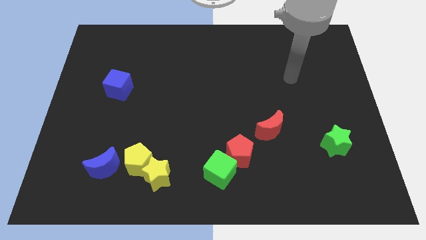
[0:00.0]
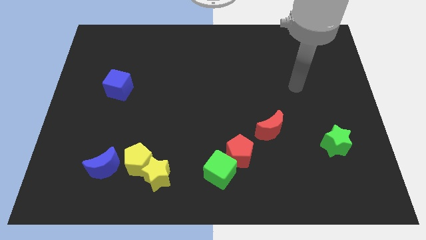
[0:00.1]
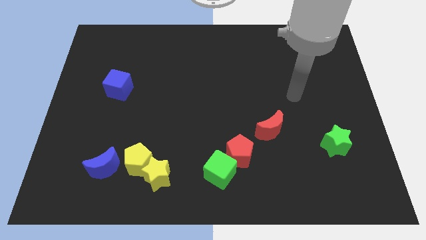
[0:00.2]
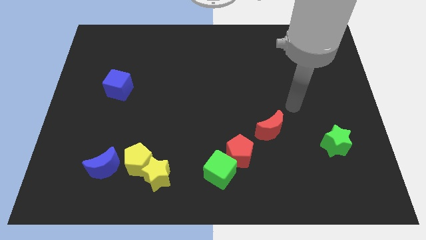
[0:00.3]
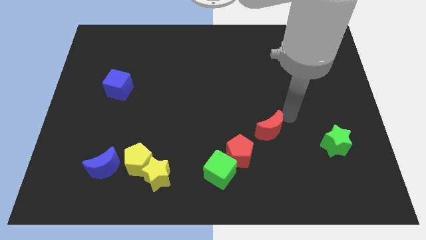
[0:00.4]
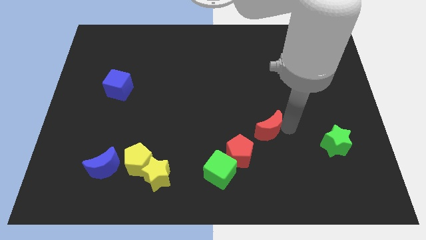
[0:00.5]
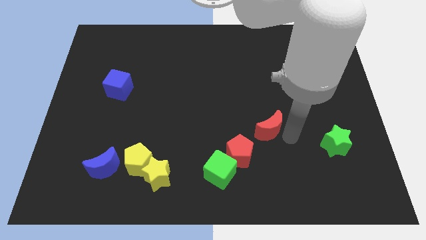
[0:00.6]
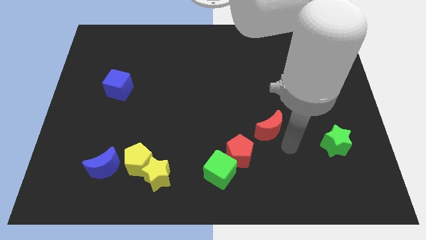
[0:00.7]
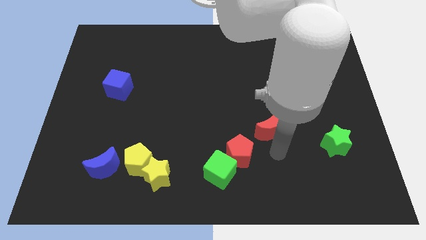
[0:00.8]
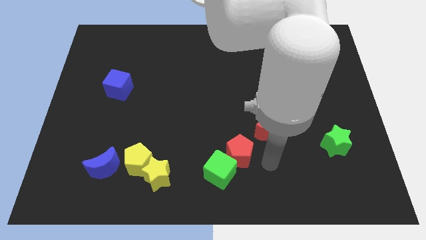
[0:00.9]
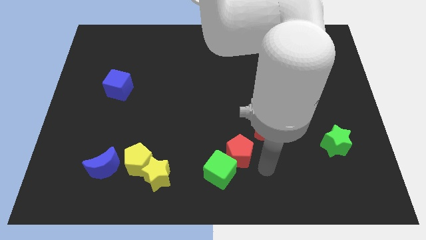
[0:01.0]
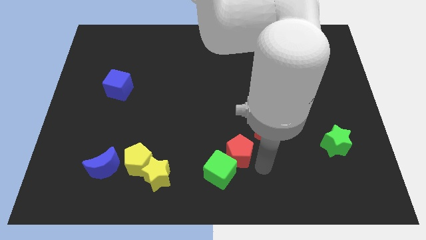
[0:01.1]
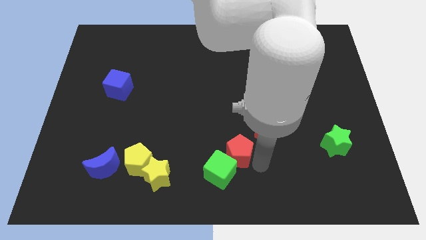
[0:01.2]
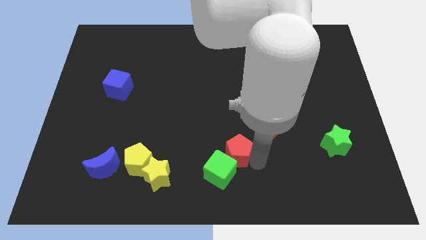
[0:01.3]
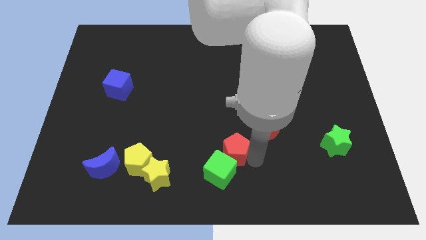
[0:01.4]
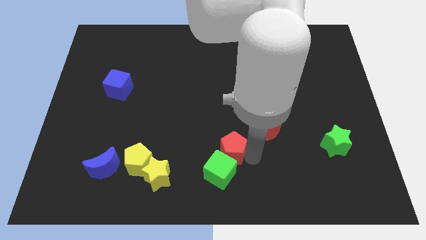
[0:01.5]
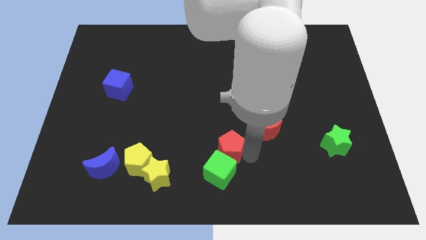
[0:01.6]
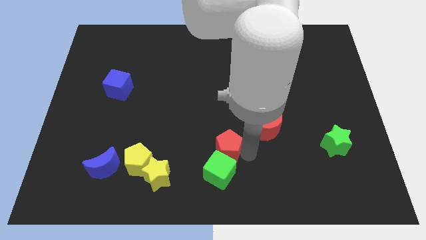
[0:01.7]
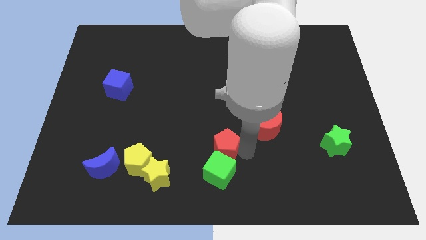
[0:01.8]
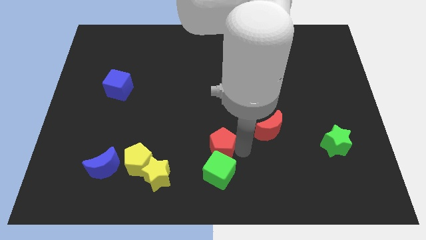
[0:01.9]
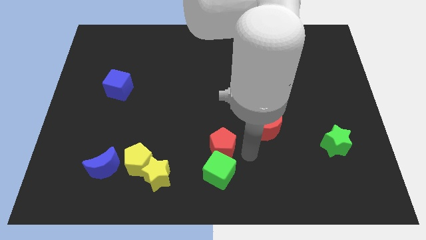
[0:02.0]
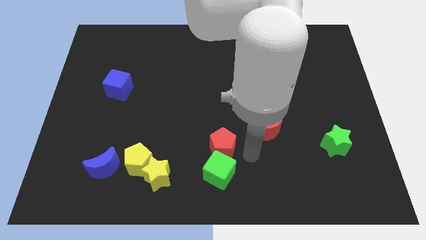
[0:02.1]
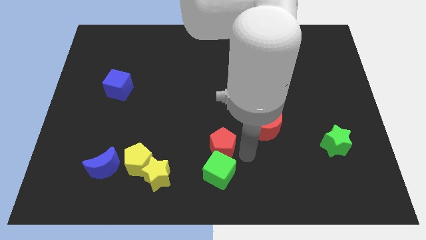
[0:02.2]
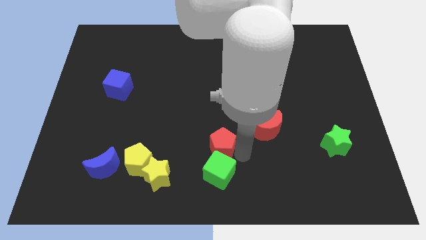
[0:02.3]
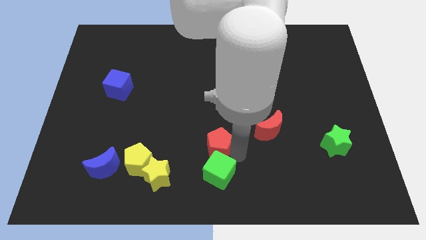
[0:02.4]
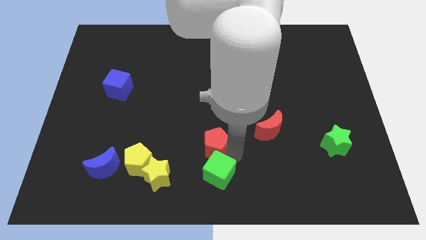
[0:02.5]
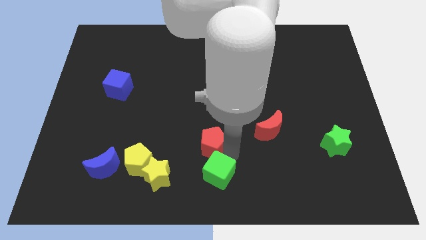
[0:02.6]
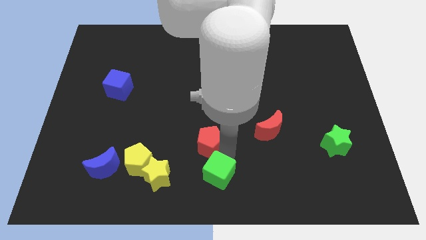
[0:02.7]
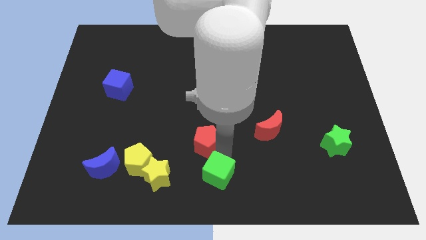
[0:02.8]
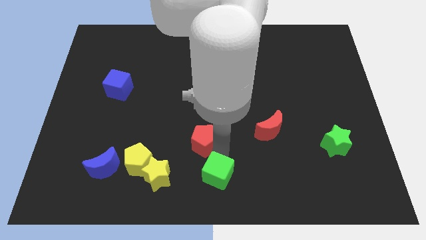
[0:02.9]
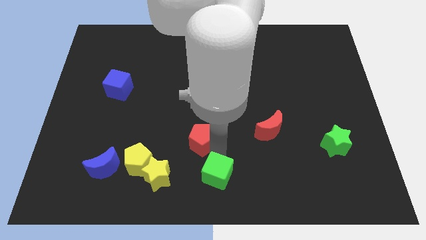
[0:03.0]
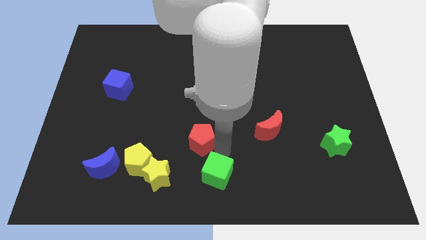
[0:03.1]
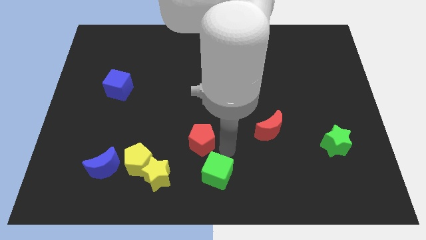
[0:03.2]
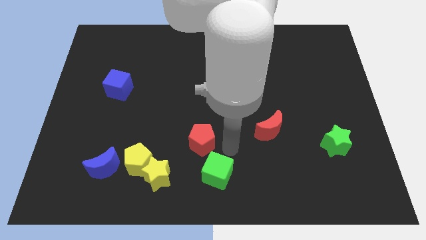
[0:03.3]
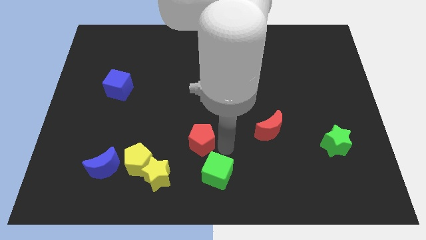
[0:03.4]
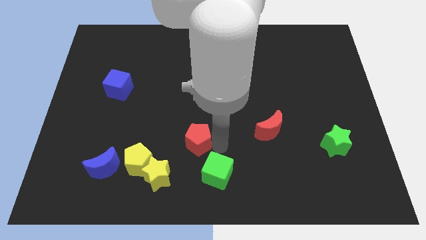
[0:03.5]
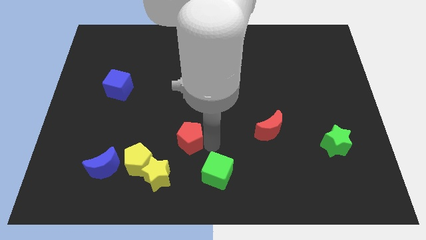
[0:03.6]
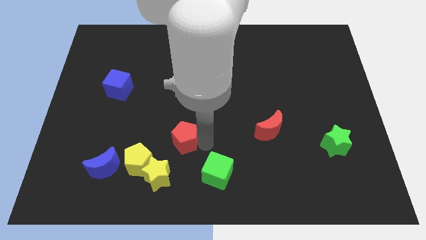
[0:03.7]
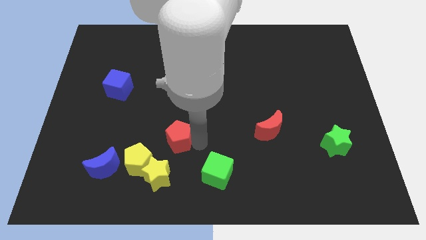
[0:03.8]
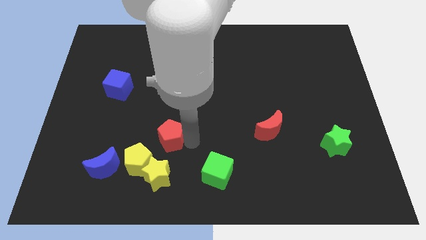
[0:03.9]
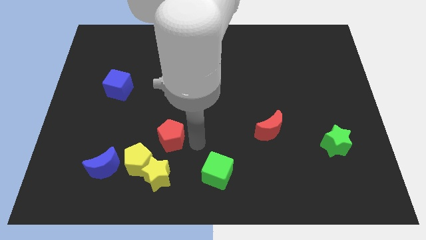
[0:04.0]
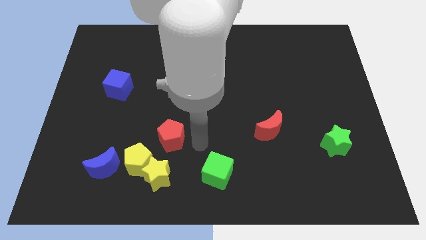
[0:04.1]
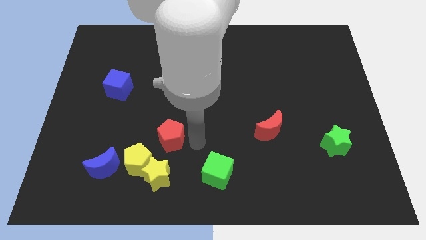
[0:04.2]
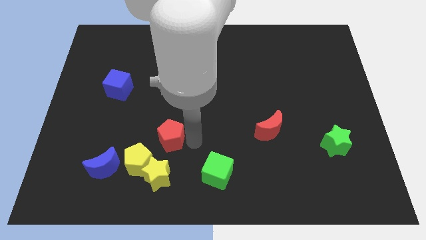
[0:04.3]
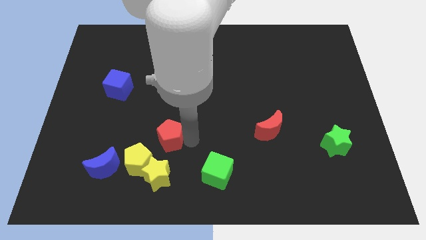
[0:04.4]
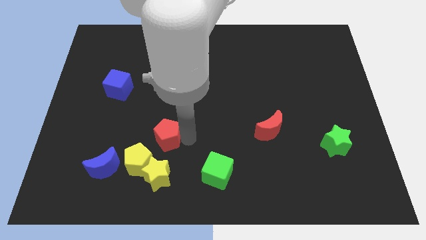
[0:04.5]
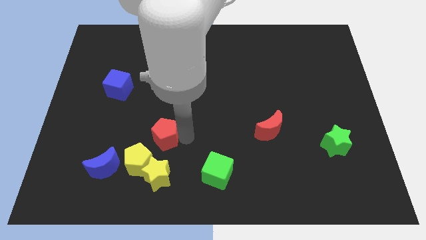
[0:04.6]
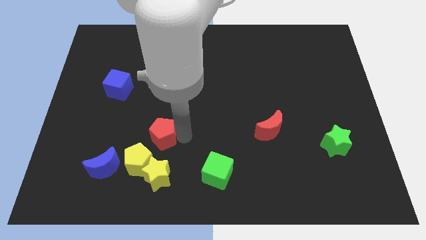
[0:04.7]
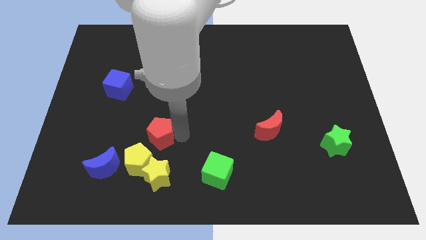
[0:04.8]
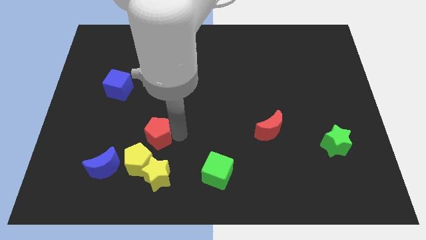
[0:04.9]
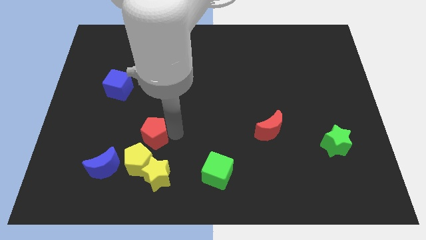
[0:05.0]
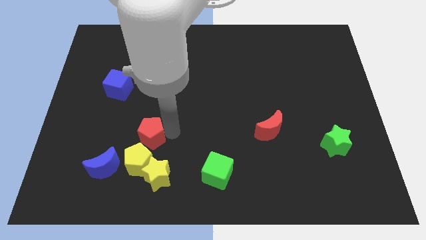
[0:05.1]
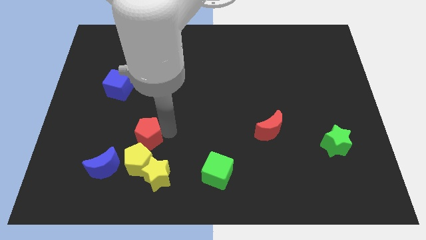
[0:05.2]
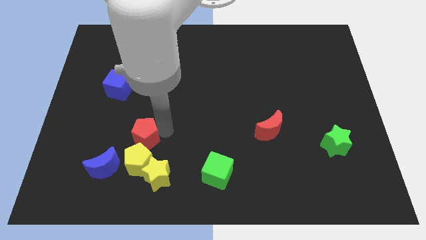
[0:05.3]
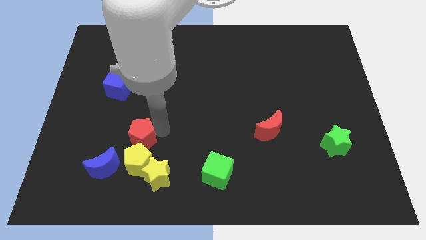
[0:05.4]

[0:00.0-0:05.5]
slide the red pentagon left

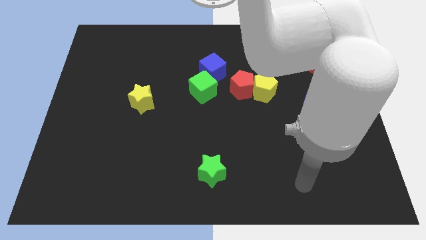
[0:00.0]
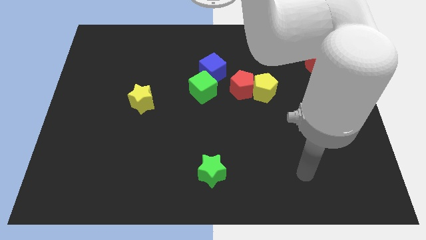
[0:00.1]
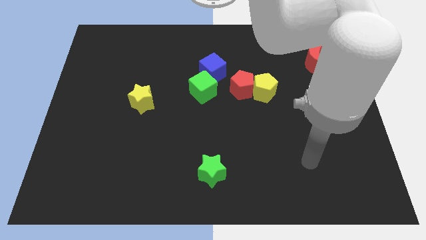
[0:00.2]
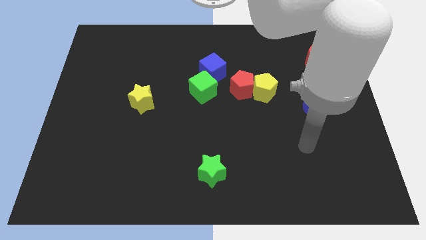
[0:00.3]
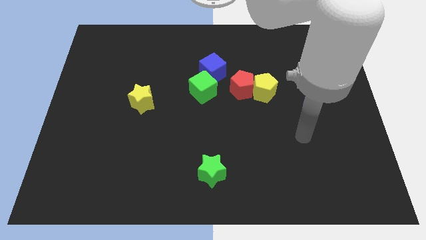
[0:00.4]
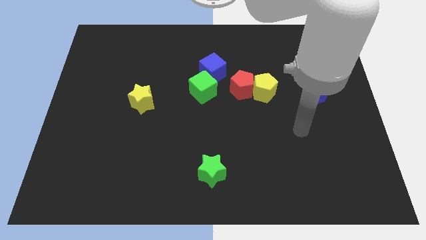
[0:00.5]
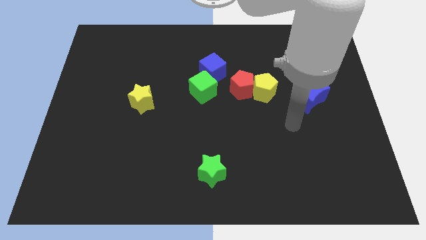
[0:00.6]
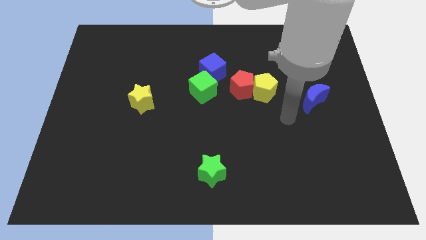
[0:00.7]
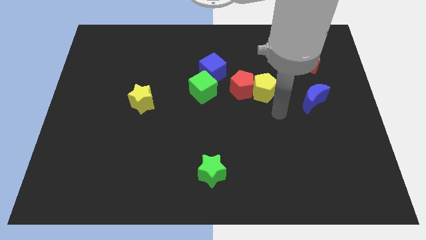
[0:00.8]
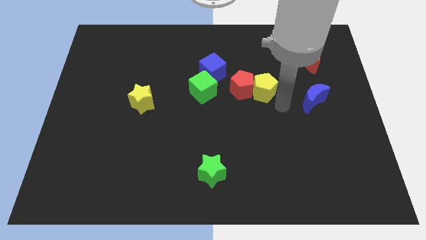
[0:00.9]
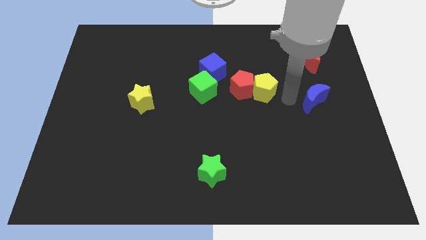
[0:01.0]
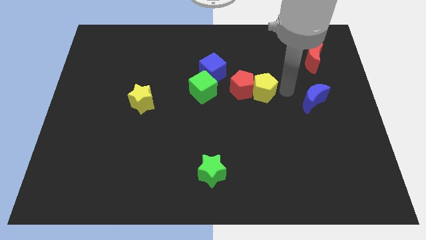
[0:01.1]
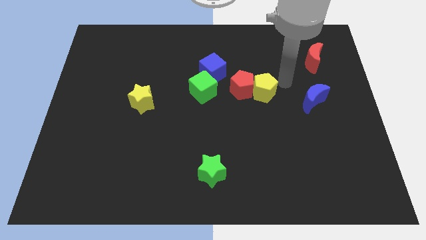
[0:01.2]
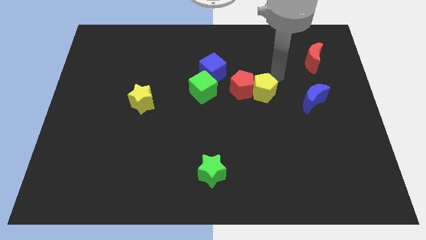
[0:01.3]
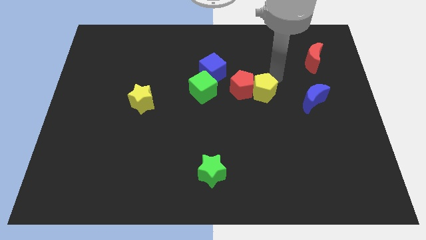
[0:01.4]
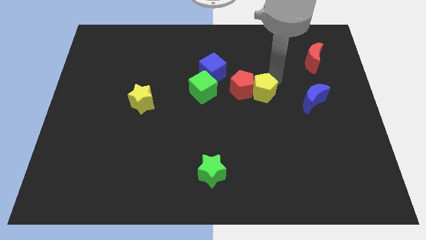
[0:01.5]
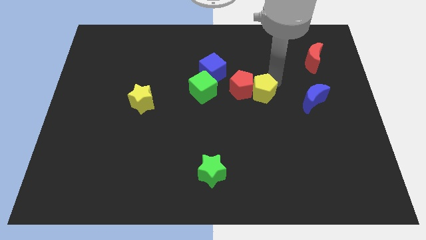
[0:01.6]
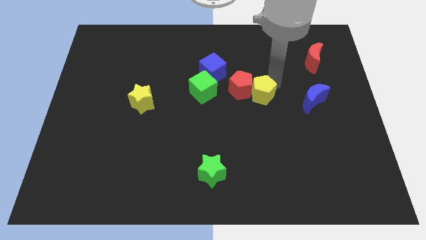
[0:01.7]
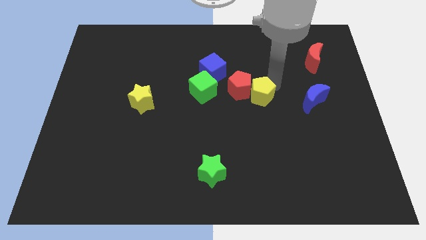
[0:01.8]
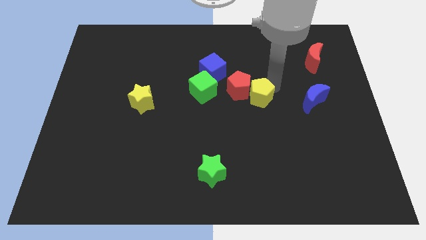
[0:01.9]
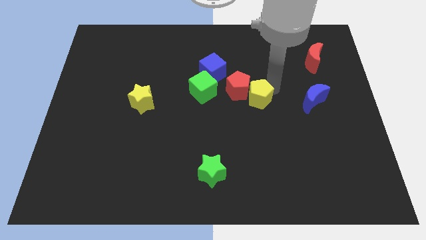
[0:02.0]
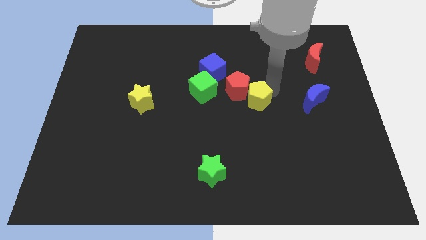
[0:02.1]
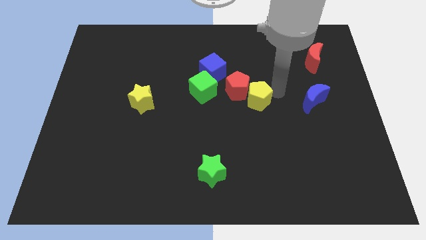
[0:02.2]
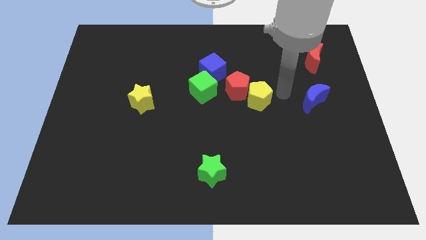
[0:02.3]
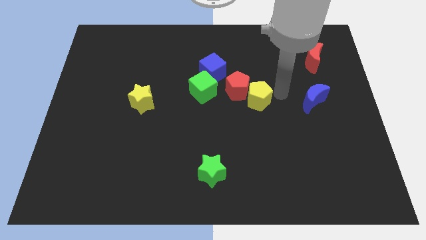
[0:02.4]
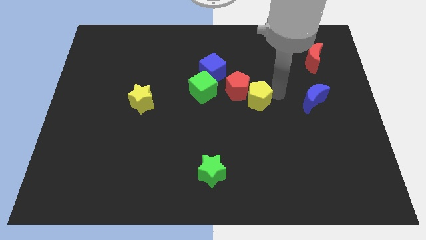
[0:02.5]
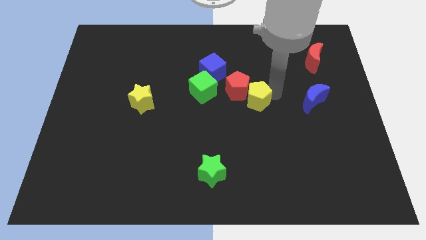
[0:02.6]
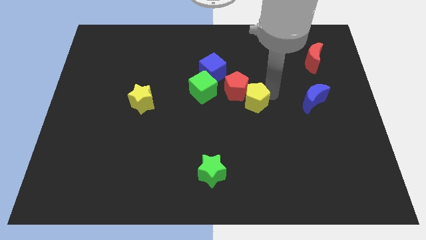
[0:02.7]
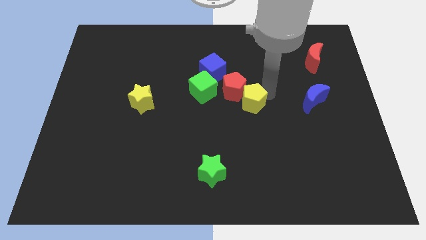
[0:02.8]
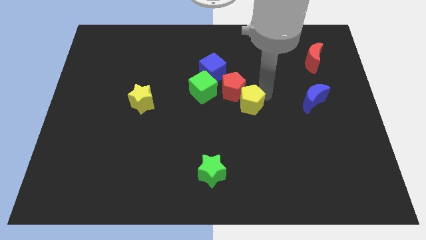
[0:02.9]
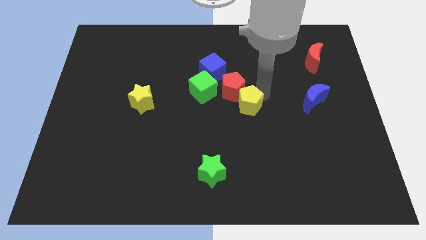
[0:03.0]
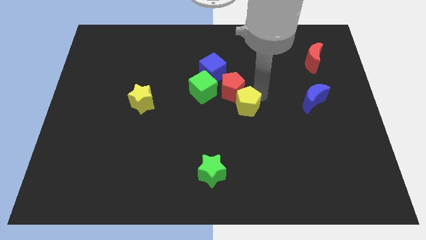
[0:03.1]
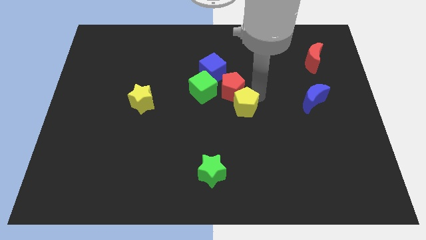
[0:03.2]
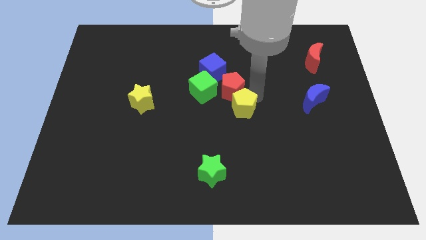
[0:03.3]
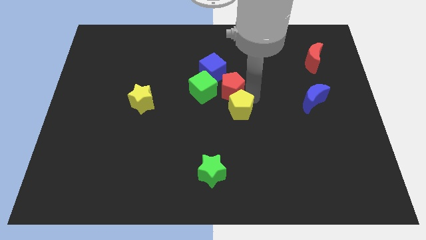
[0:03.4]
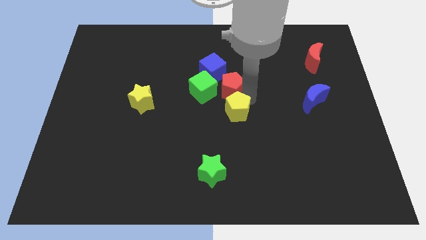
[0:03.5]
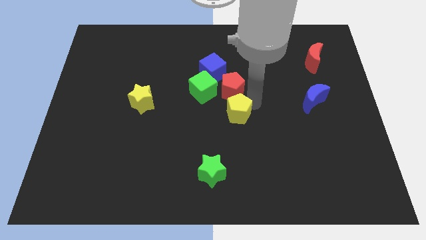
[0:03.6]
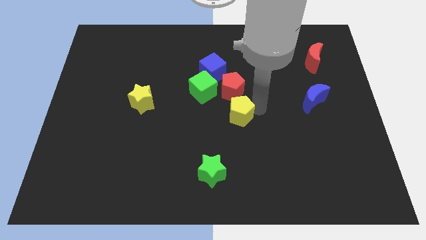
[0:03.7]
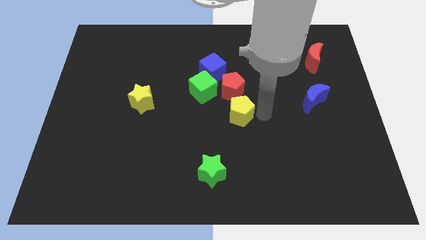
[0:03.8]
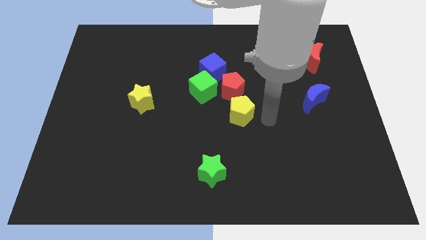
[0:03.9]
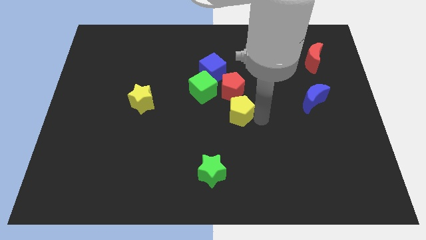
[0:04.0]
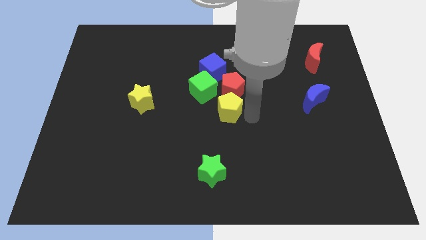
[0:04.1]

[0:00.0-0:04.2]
move the yellow pentagon to the left slightly
